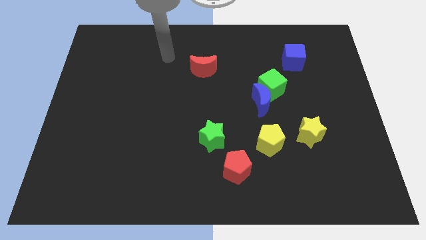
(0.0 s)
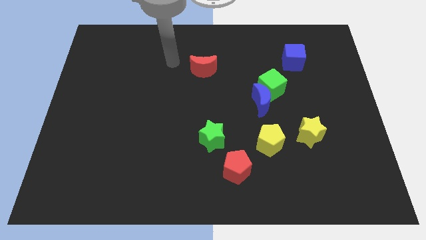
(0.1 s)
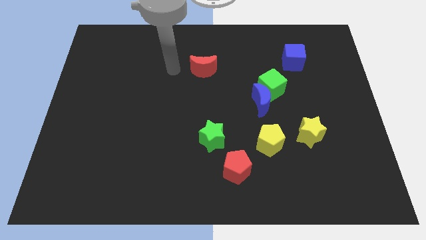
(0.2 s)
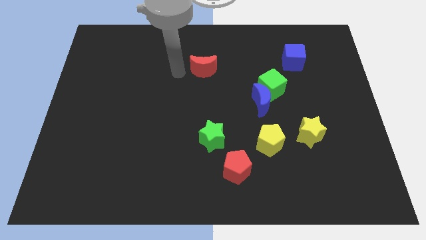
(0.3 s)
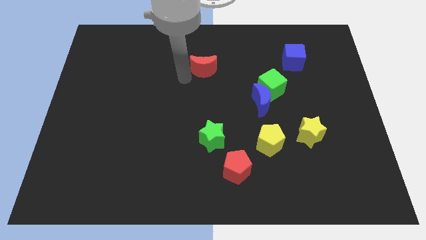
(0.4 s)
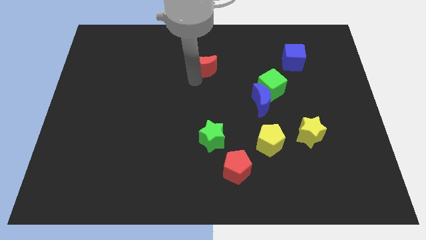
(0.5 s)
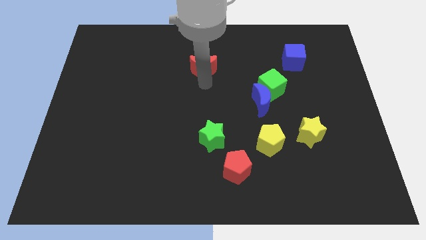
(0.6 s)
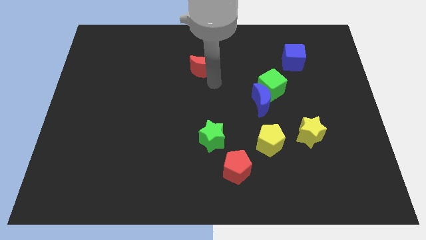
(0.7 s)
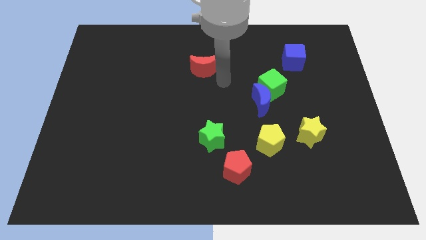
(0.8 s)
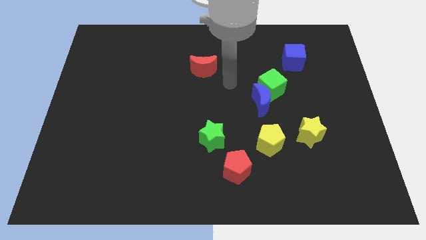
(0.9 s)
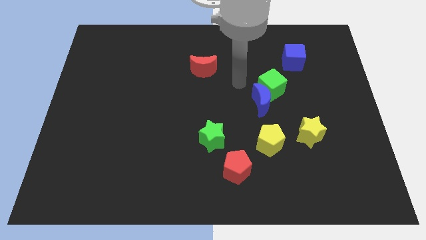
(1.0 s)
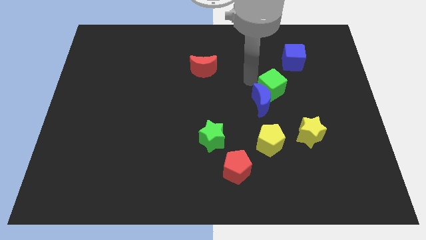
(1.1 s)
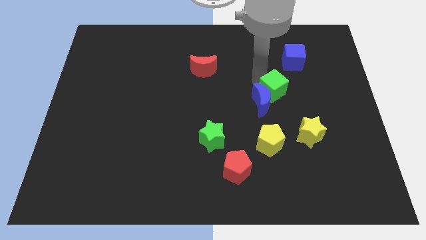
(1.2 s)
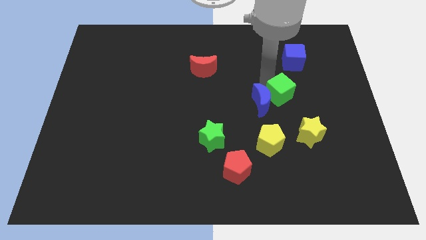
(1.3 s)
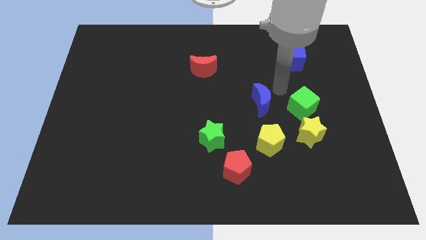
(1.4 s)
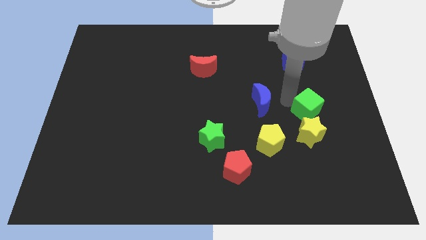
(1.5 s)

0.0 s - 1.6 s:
pull the blue moon apart from the green cube

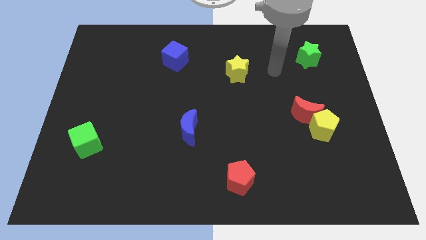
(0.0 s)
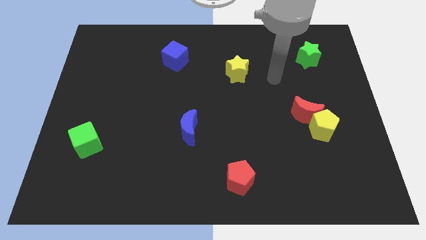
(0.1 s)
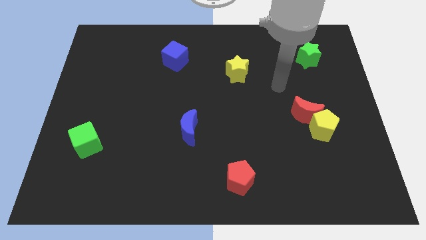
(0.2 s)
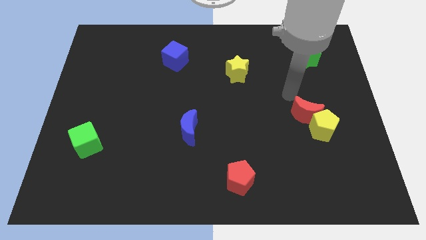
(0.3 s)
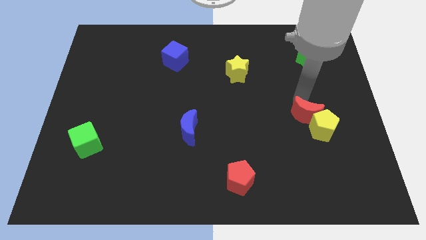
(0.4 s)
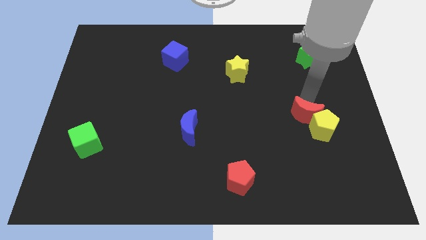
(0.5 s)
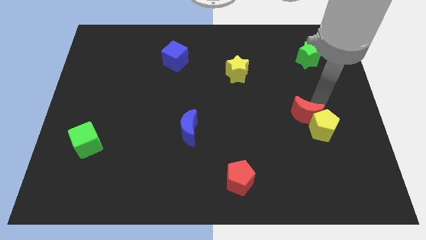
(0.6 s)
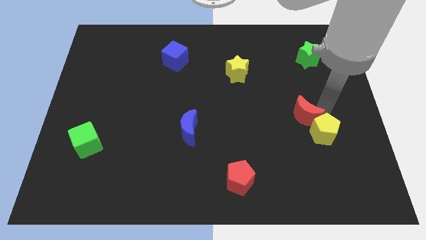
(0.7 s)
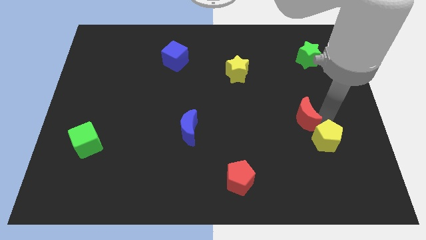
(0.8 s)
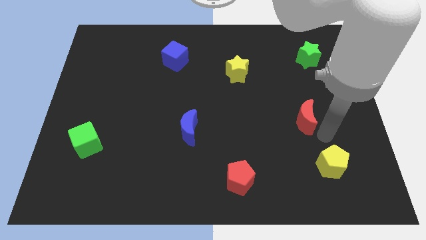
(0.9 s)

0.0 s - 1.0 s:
pull the red moon apart from the yellow pentagon

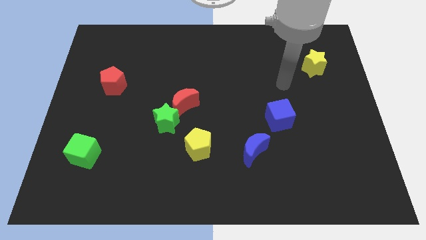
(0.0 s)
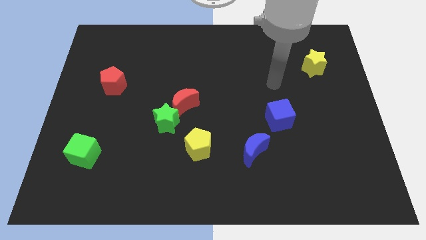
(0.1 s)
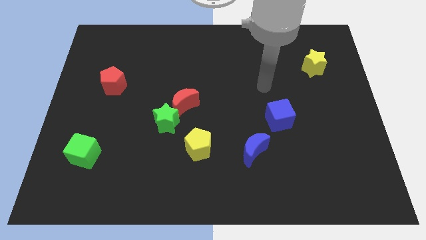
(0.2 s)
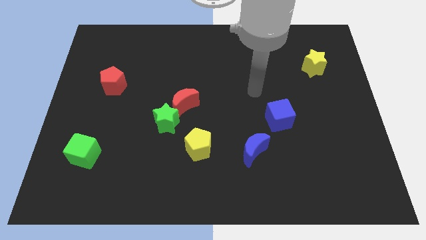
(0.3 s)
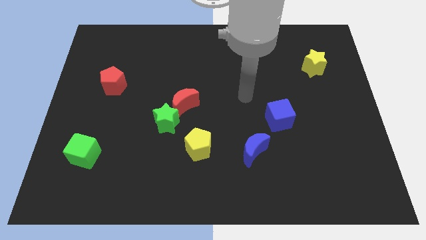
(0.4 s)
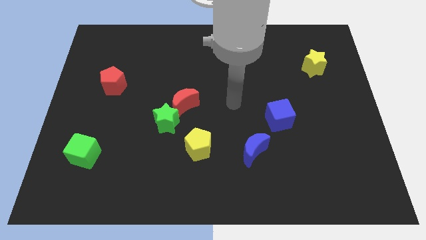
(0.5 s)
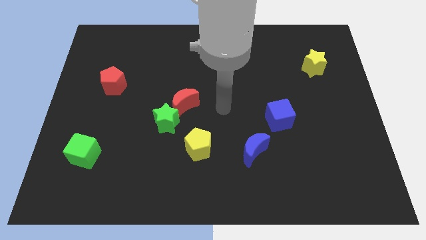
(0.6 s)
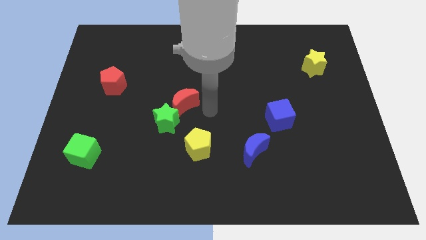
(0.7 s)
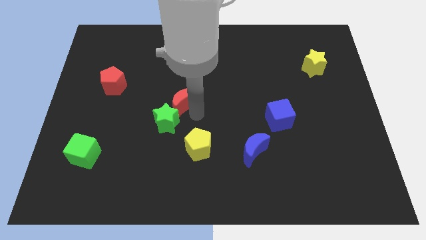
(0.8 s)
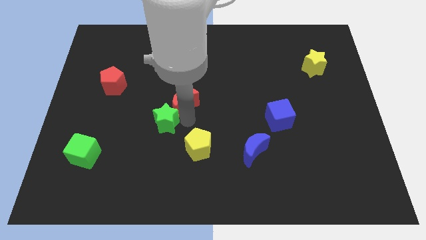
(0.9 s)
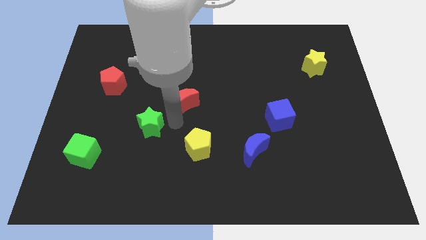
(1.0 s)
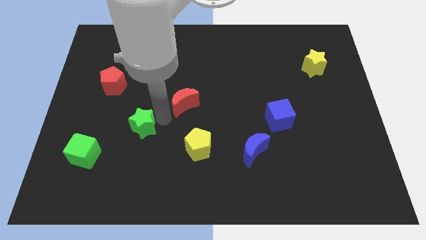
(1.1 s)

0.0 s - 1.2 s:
move the red moon away from the green star

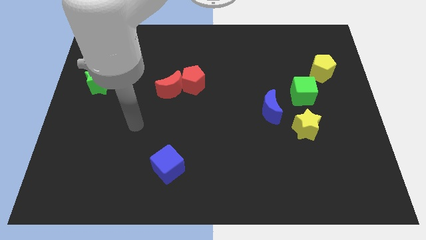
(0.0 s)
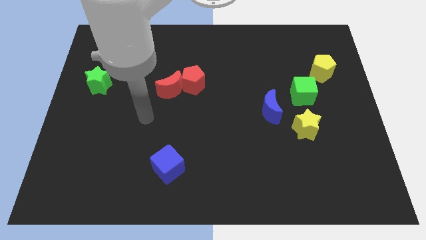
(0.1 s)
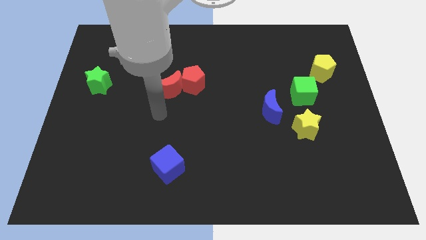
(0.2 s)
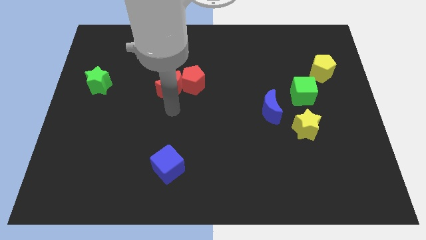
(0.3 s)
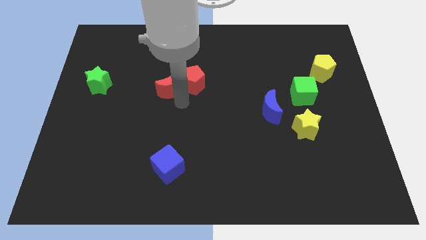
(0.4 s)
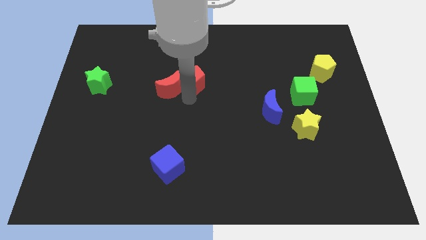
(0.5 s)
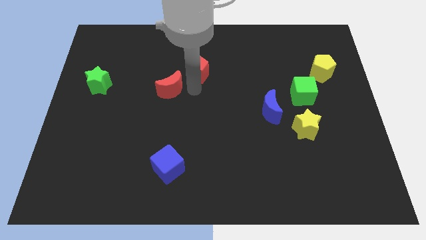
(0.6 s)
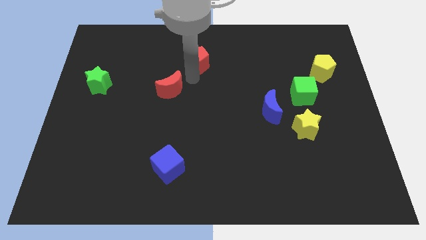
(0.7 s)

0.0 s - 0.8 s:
separate the red moon from the red pentagon

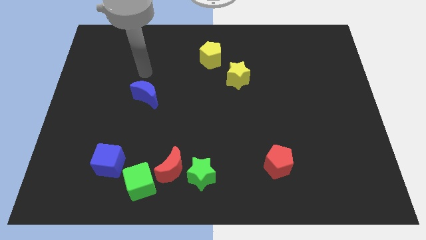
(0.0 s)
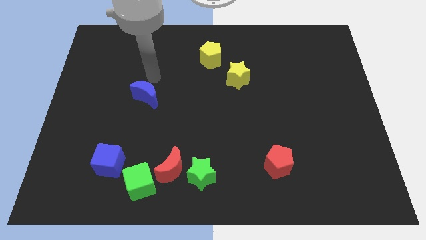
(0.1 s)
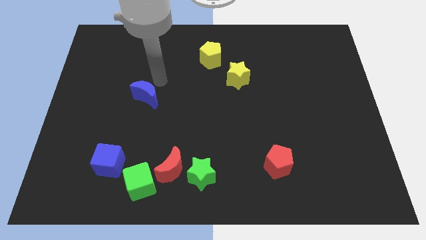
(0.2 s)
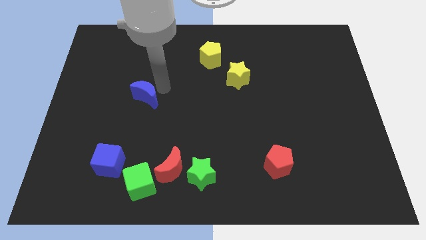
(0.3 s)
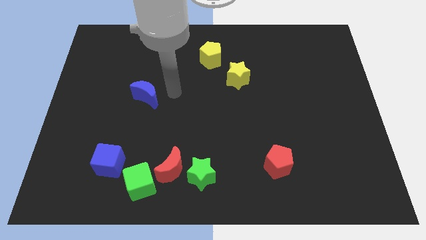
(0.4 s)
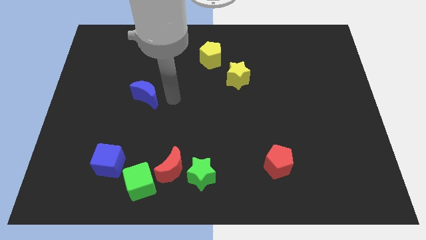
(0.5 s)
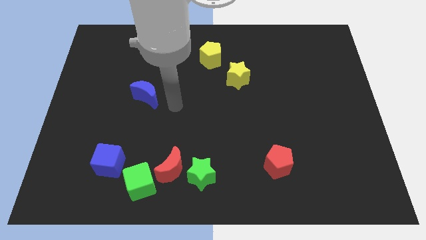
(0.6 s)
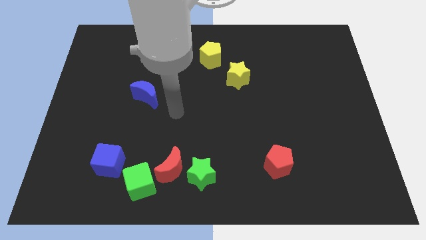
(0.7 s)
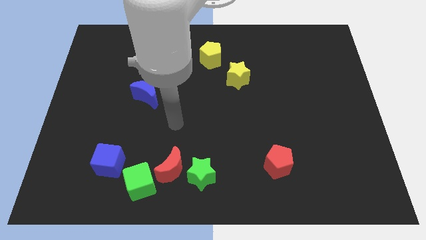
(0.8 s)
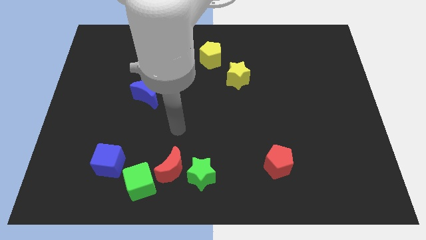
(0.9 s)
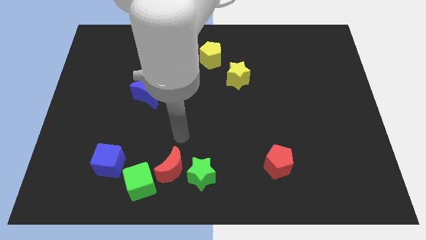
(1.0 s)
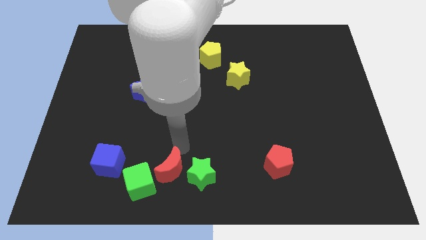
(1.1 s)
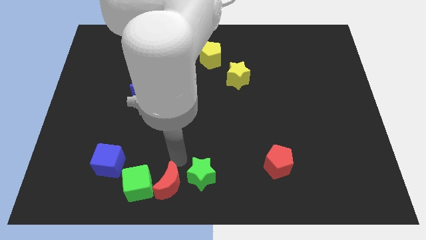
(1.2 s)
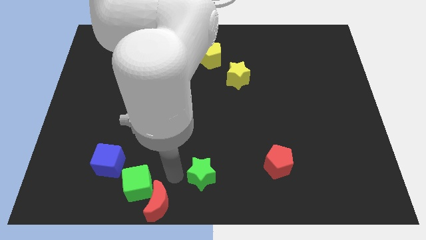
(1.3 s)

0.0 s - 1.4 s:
move the green star away from the red moon

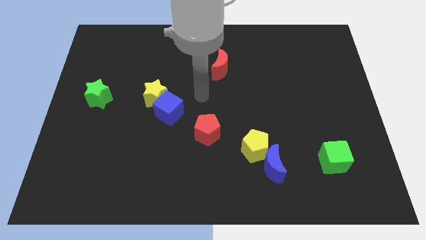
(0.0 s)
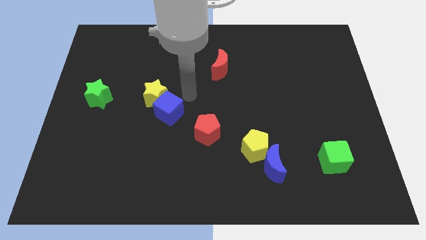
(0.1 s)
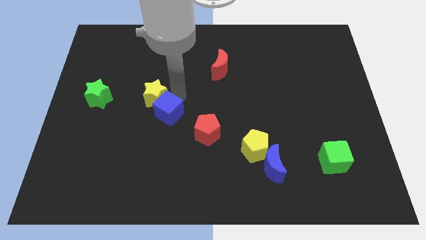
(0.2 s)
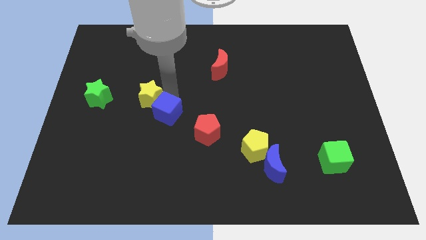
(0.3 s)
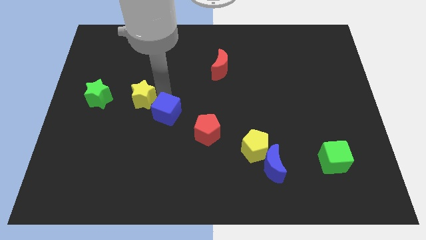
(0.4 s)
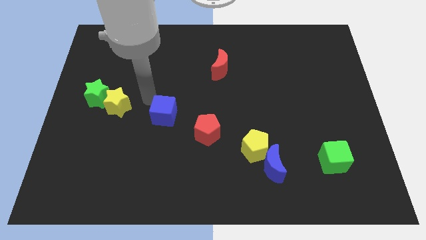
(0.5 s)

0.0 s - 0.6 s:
pull the blue cube apart from the yellow star

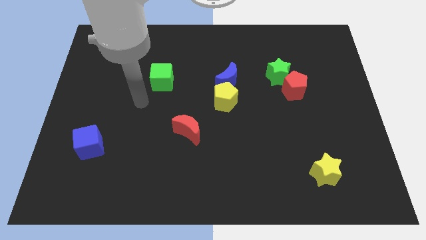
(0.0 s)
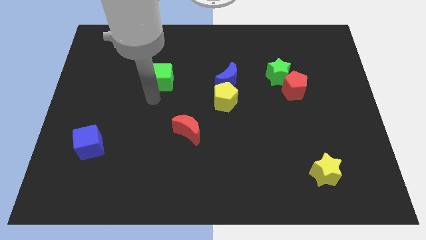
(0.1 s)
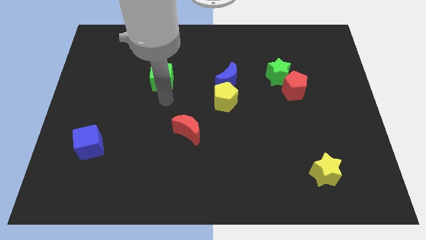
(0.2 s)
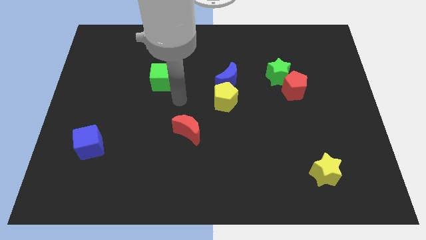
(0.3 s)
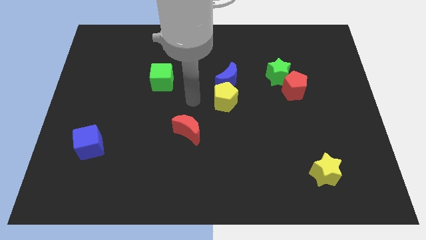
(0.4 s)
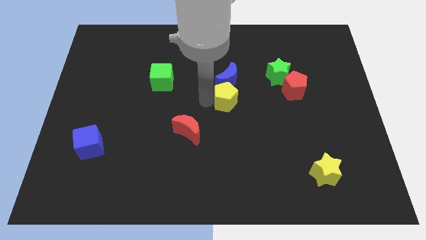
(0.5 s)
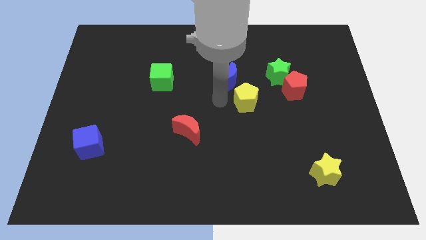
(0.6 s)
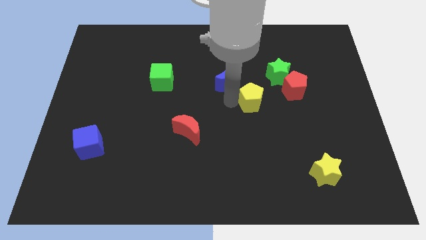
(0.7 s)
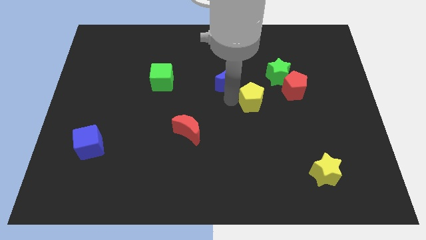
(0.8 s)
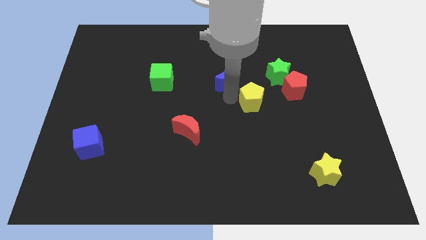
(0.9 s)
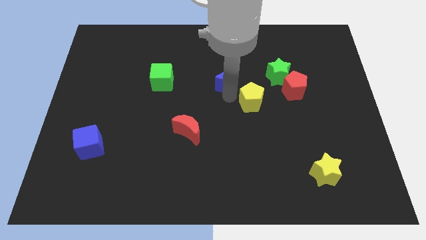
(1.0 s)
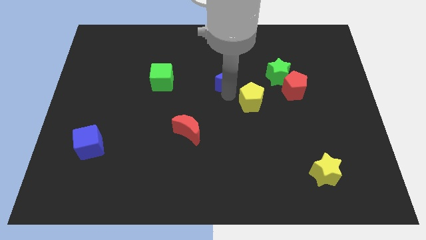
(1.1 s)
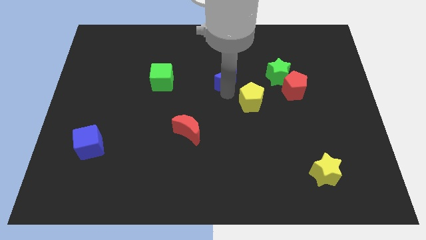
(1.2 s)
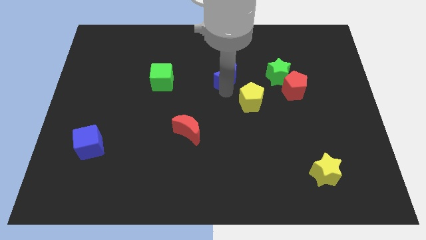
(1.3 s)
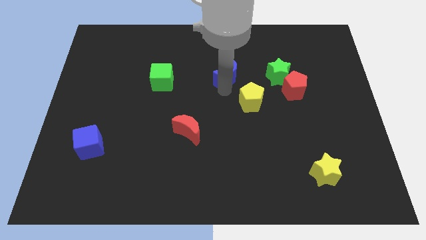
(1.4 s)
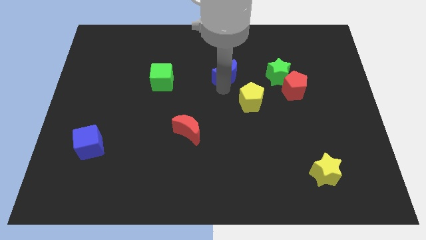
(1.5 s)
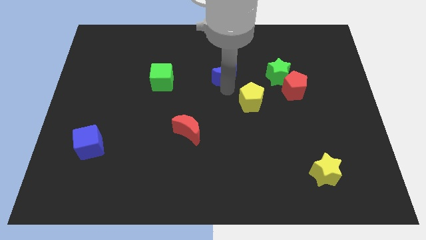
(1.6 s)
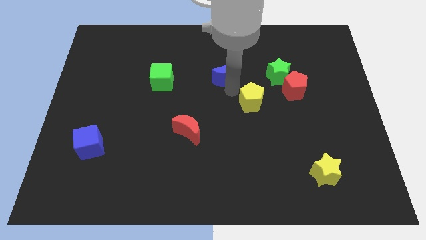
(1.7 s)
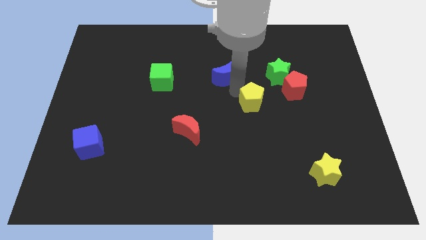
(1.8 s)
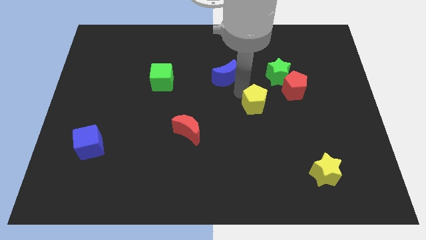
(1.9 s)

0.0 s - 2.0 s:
pull the blue moon apart from the yellow pentagon

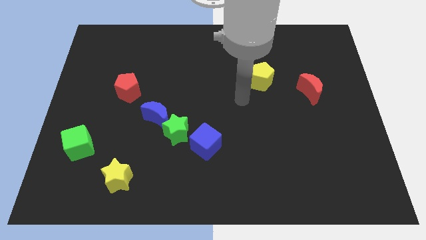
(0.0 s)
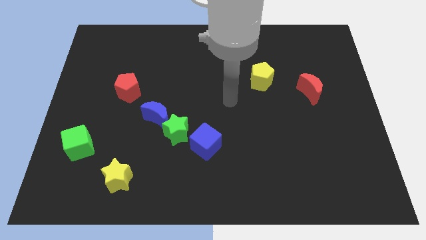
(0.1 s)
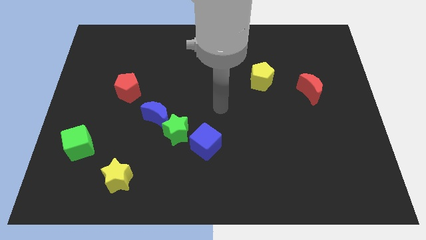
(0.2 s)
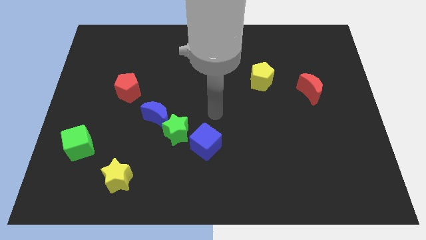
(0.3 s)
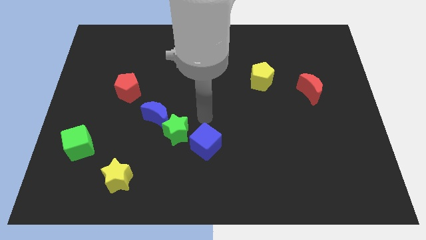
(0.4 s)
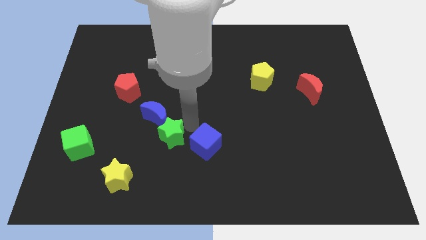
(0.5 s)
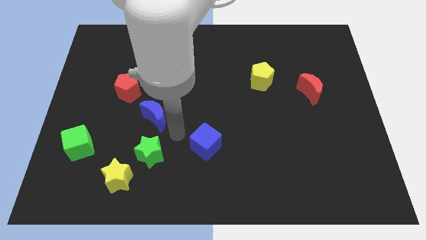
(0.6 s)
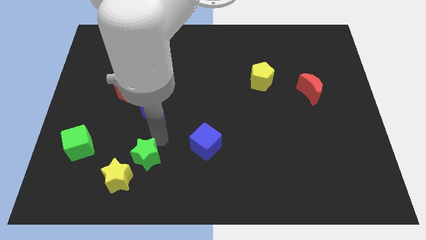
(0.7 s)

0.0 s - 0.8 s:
separate the blue moon from the green star
